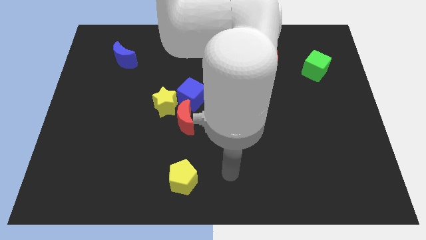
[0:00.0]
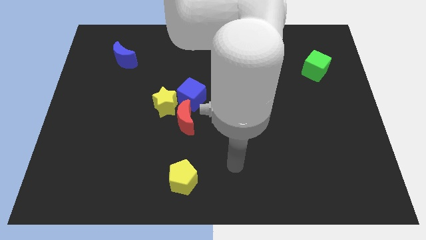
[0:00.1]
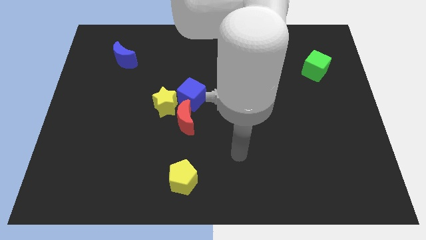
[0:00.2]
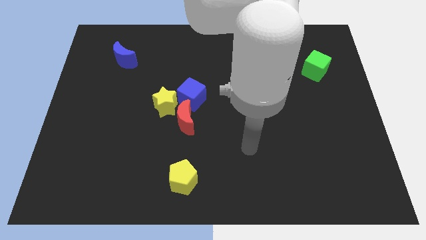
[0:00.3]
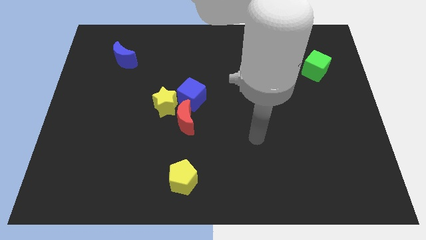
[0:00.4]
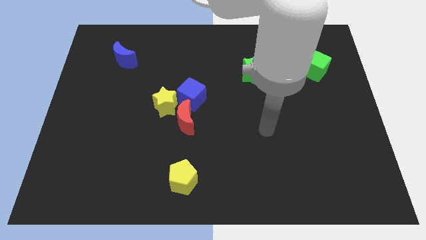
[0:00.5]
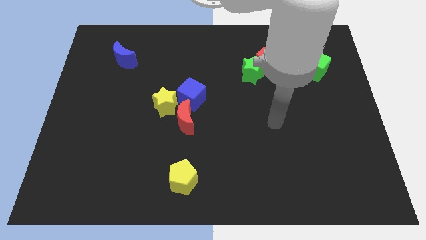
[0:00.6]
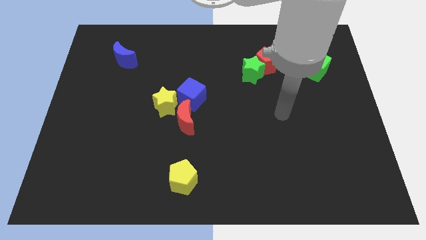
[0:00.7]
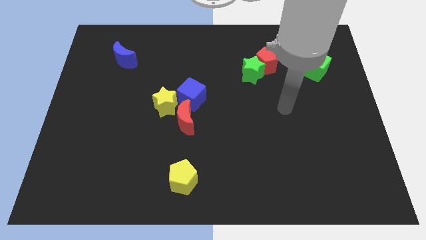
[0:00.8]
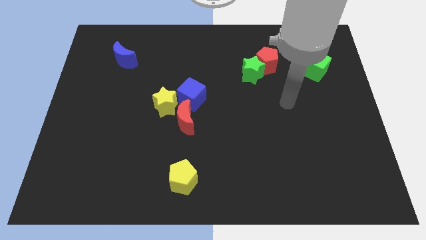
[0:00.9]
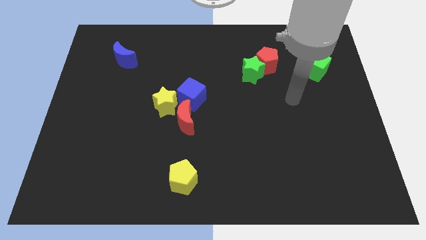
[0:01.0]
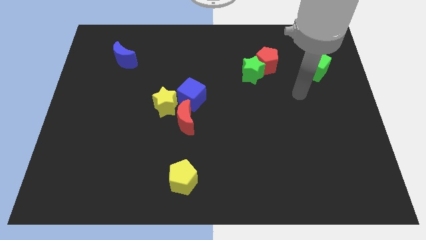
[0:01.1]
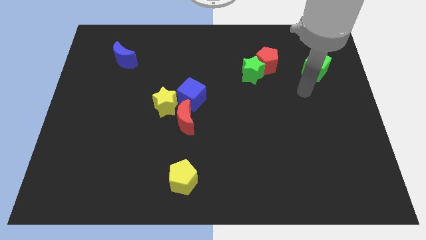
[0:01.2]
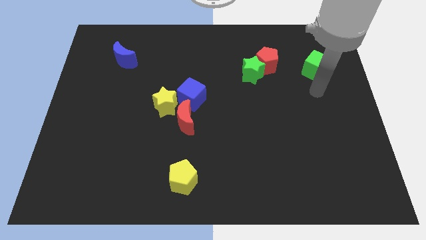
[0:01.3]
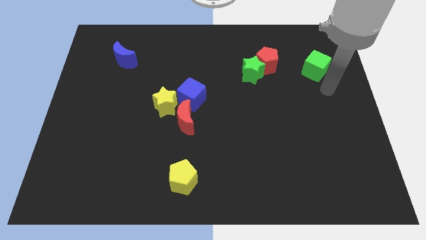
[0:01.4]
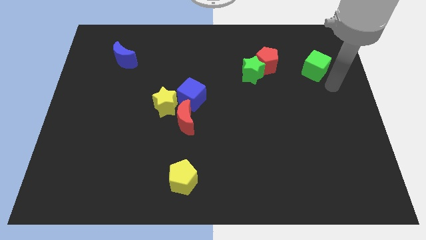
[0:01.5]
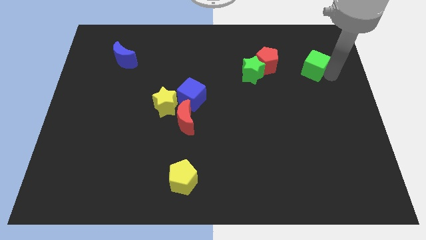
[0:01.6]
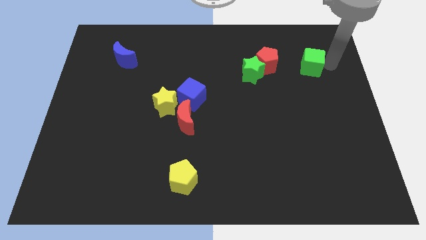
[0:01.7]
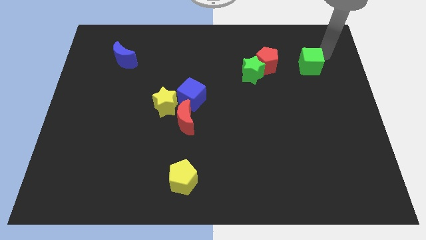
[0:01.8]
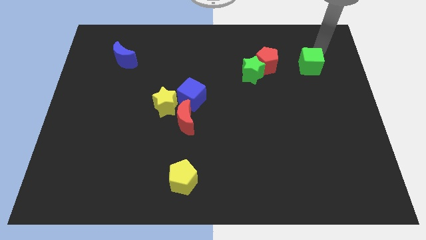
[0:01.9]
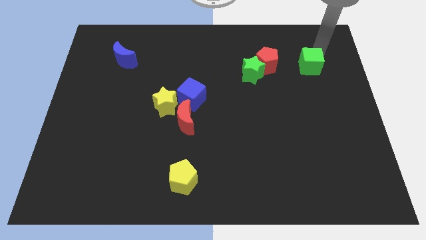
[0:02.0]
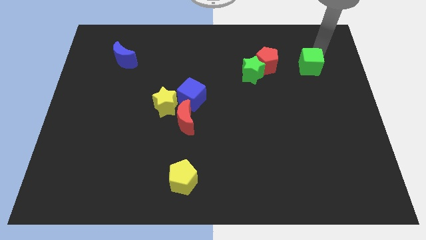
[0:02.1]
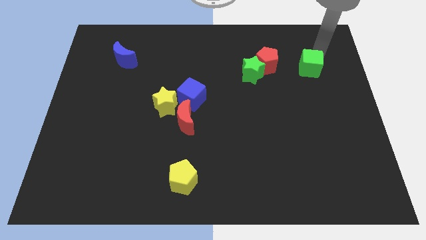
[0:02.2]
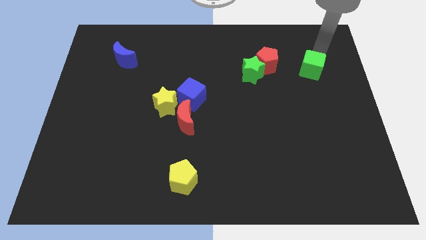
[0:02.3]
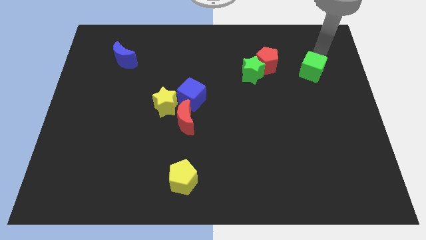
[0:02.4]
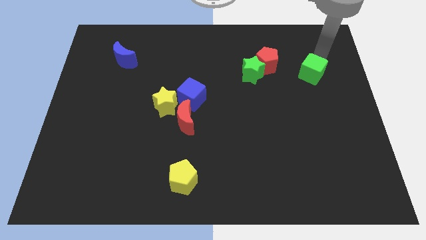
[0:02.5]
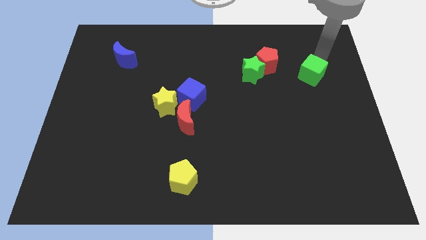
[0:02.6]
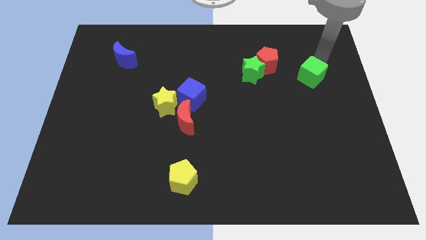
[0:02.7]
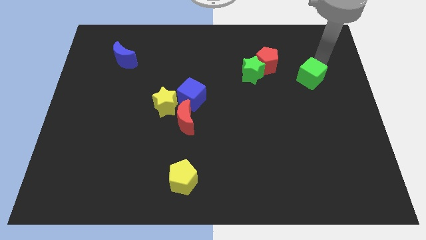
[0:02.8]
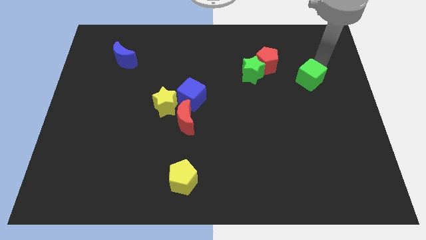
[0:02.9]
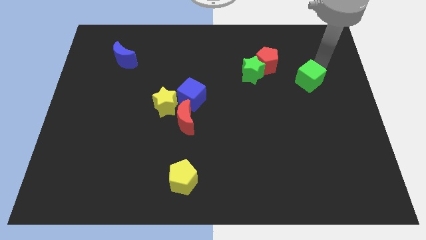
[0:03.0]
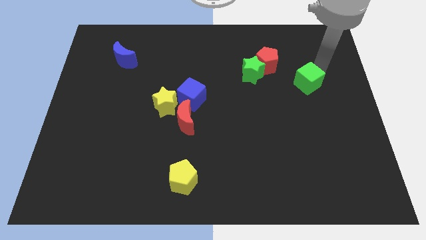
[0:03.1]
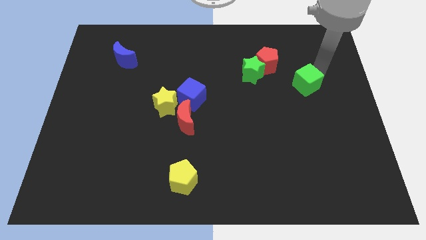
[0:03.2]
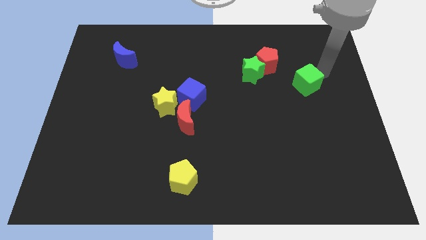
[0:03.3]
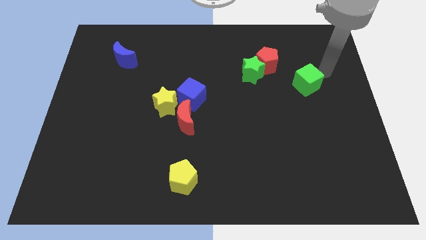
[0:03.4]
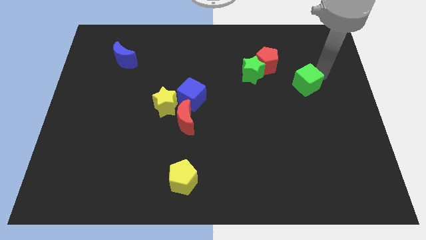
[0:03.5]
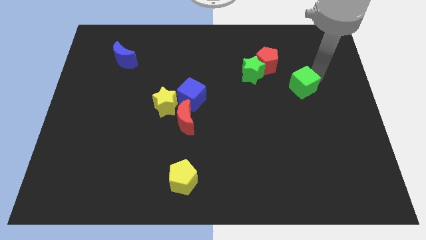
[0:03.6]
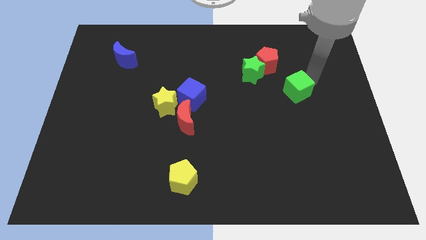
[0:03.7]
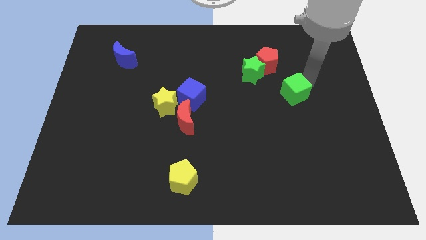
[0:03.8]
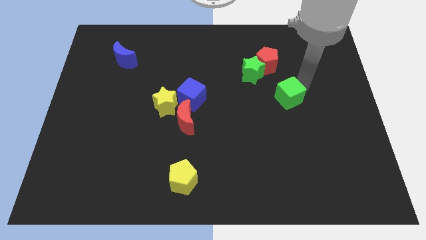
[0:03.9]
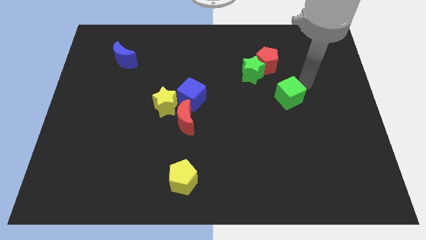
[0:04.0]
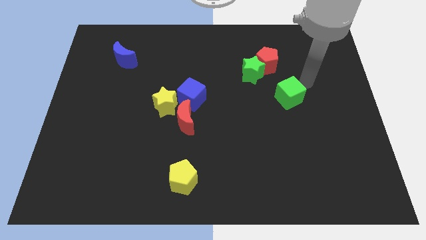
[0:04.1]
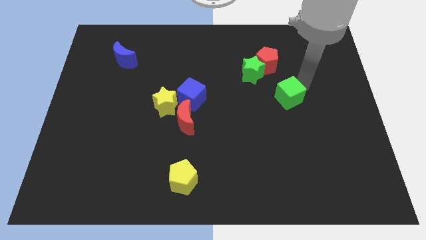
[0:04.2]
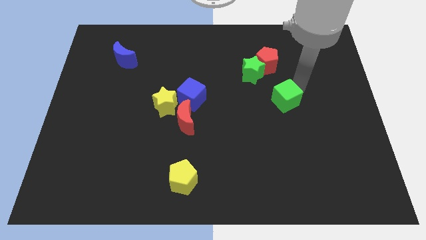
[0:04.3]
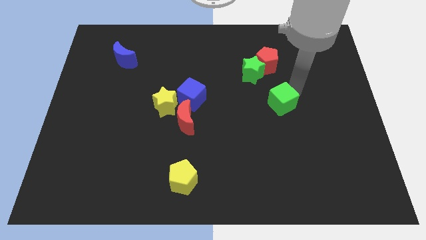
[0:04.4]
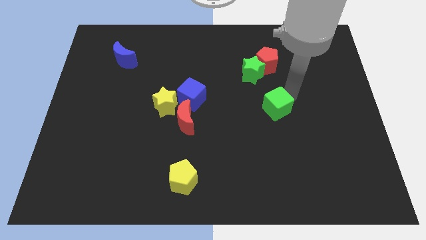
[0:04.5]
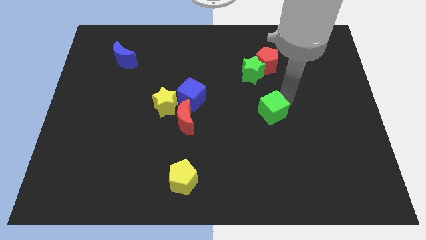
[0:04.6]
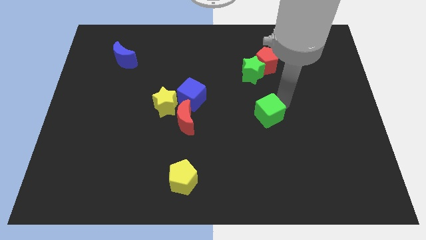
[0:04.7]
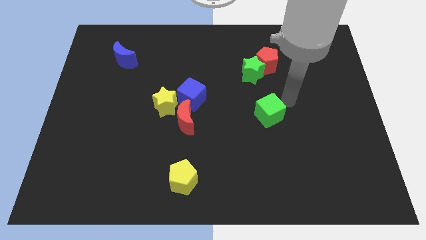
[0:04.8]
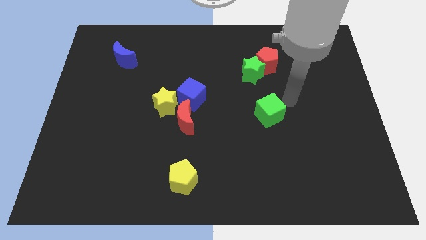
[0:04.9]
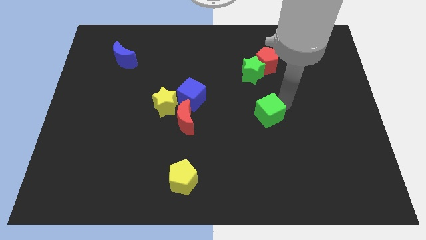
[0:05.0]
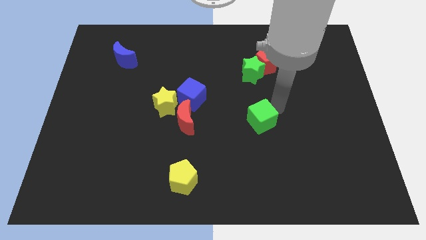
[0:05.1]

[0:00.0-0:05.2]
push the green cube down and to the left diagonally

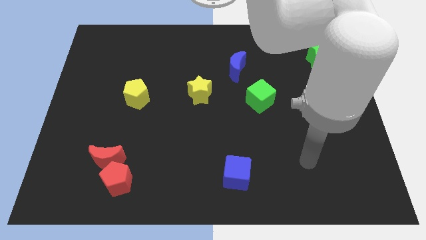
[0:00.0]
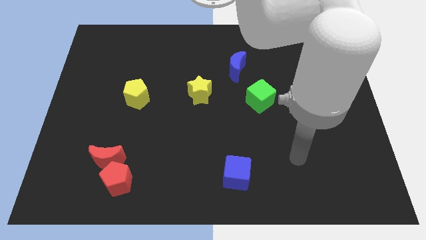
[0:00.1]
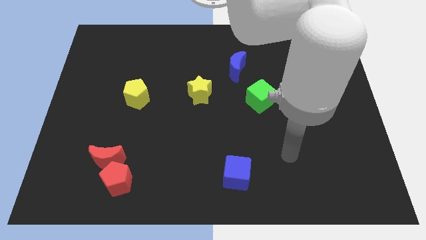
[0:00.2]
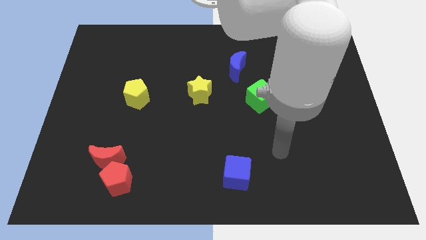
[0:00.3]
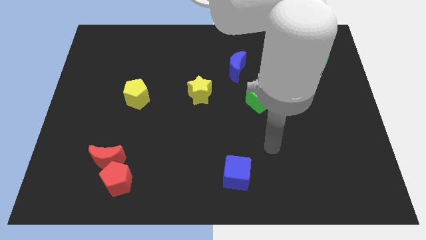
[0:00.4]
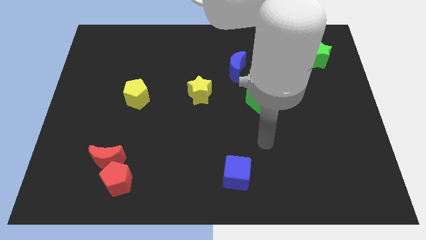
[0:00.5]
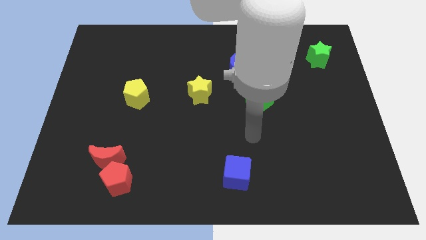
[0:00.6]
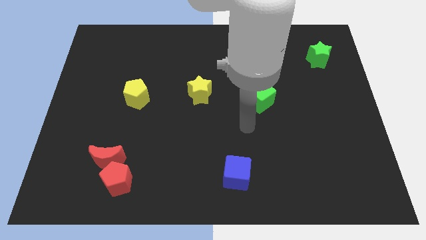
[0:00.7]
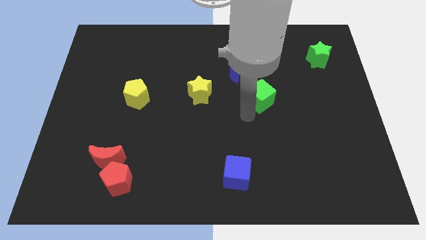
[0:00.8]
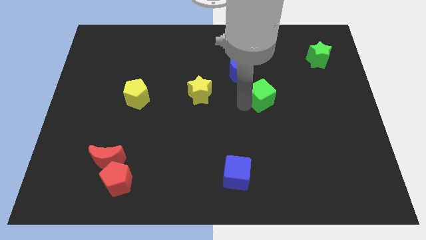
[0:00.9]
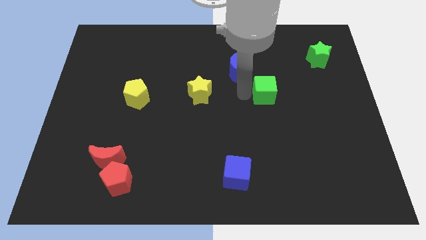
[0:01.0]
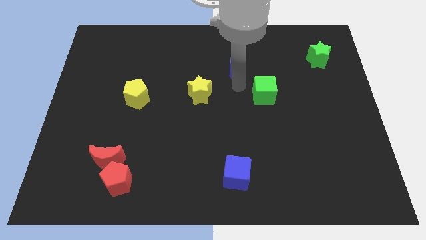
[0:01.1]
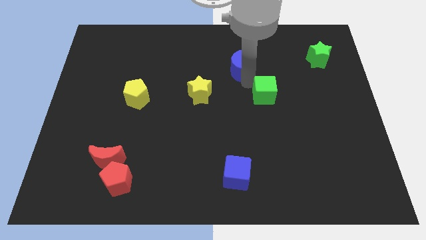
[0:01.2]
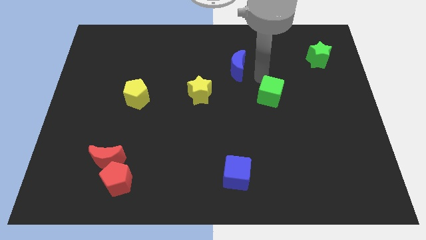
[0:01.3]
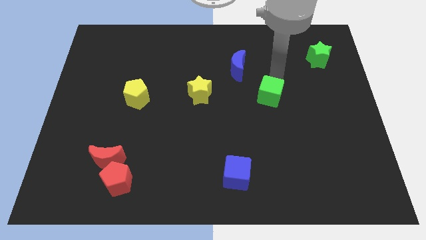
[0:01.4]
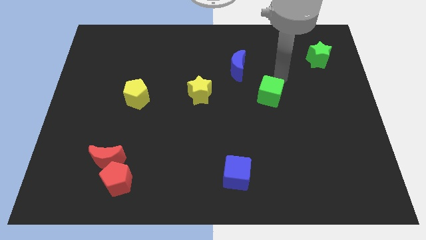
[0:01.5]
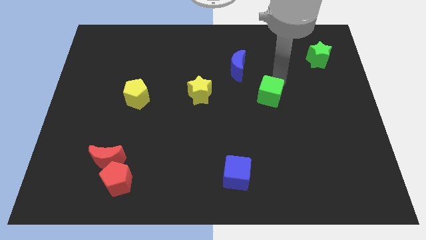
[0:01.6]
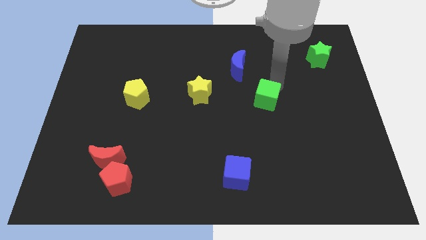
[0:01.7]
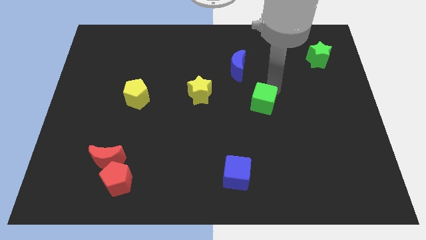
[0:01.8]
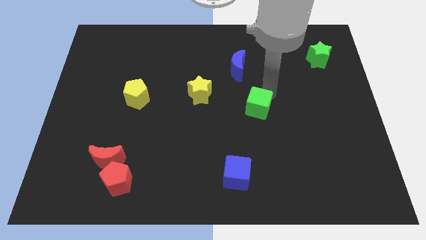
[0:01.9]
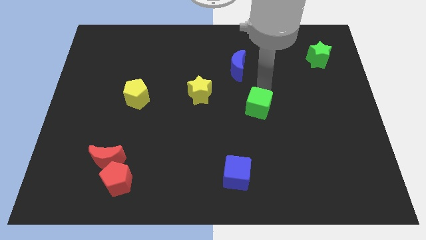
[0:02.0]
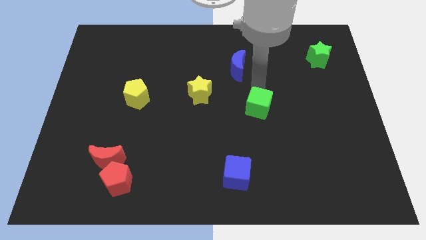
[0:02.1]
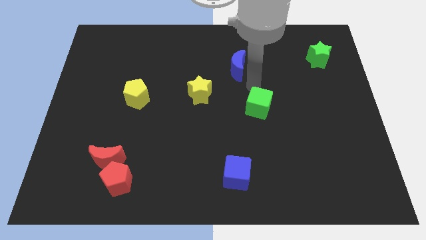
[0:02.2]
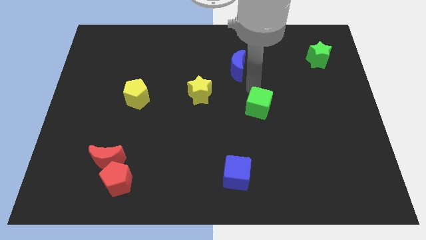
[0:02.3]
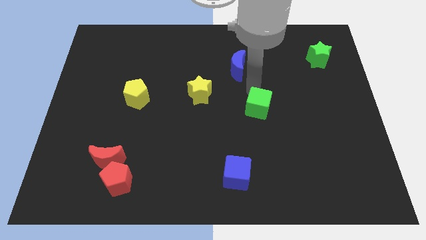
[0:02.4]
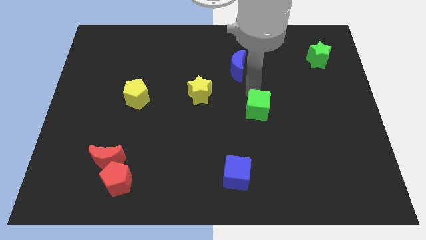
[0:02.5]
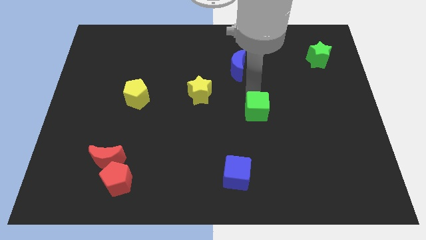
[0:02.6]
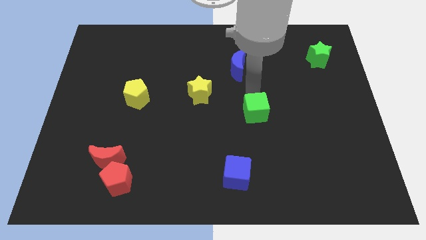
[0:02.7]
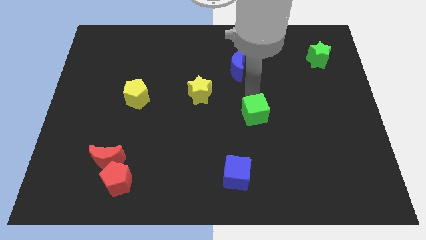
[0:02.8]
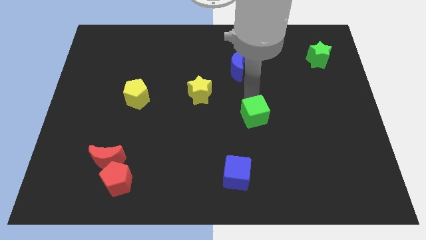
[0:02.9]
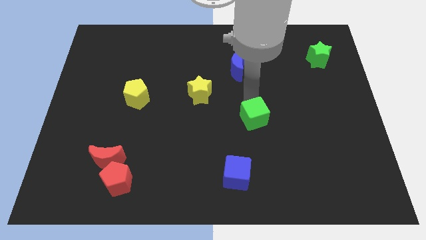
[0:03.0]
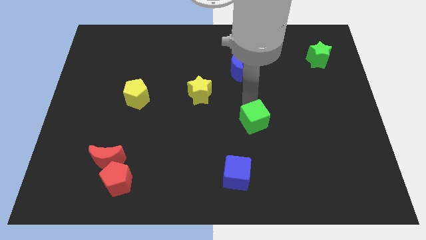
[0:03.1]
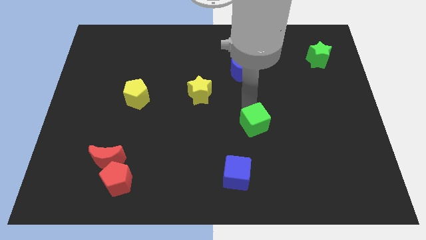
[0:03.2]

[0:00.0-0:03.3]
move the green cube somewhat down
